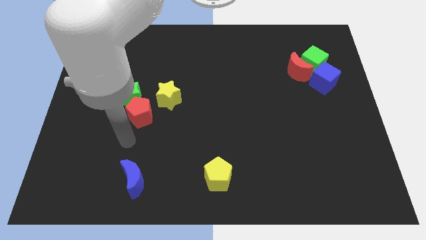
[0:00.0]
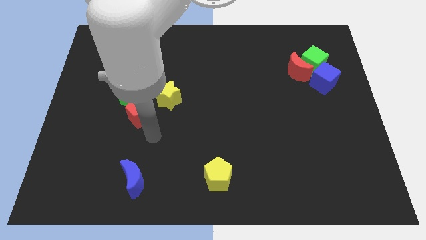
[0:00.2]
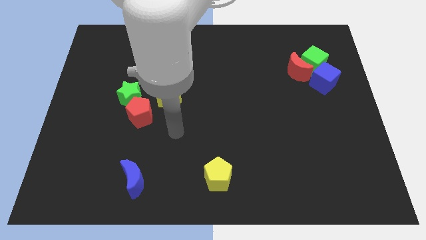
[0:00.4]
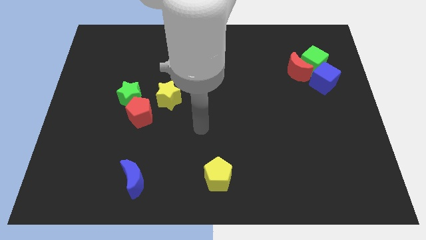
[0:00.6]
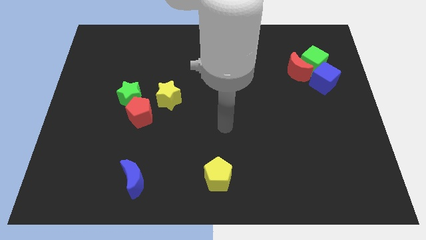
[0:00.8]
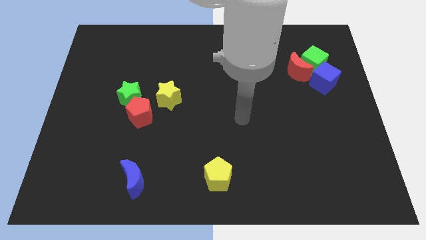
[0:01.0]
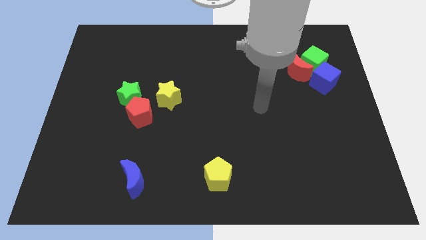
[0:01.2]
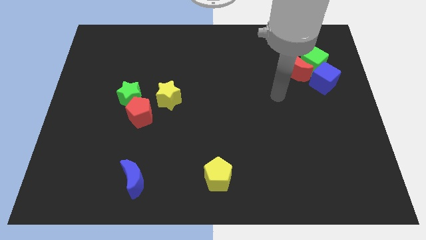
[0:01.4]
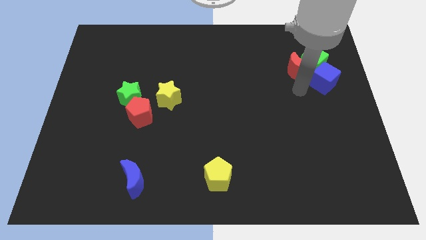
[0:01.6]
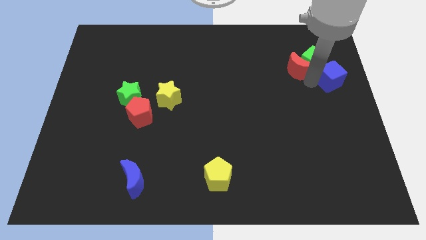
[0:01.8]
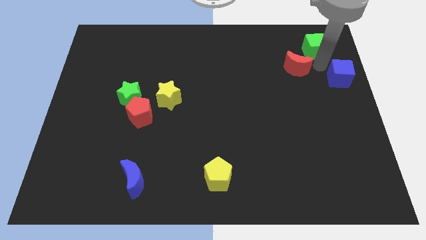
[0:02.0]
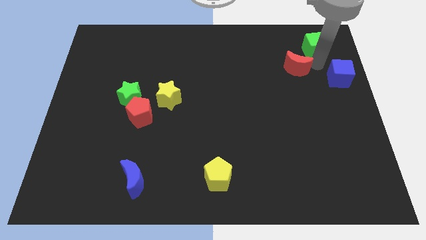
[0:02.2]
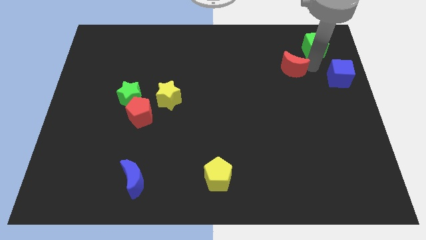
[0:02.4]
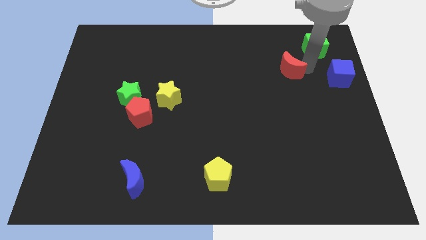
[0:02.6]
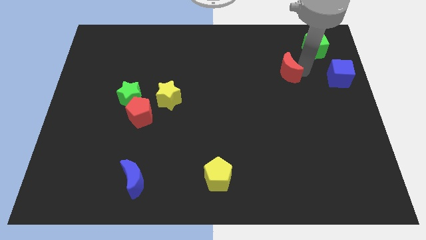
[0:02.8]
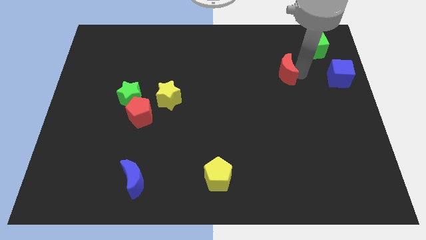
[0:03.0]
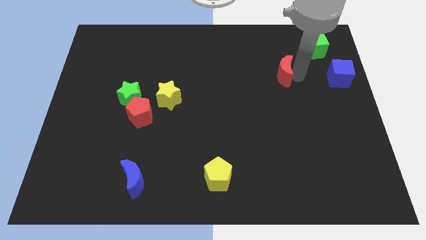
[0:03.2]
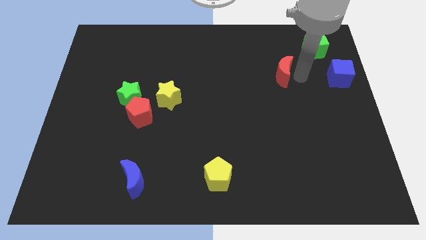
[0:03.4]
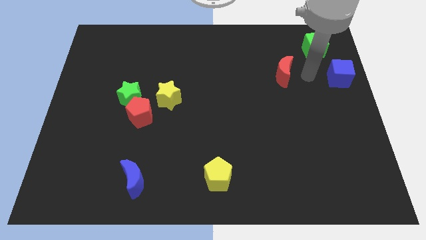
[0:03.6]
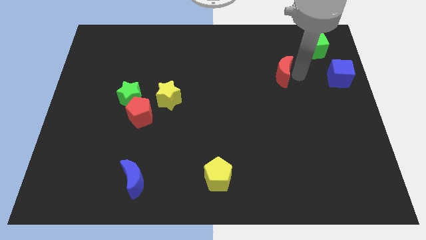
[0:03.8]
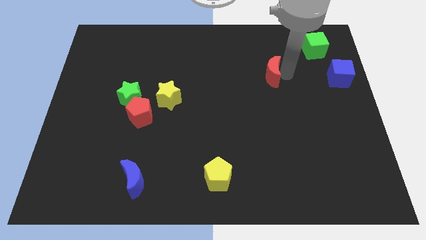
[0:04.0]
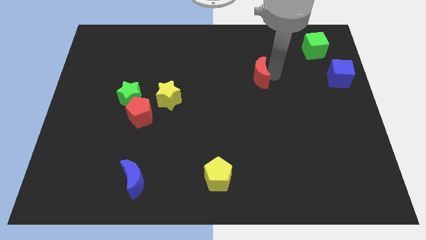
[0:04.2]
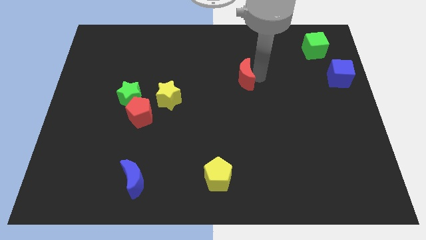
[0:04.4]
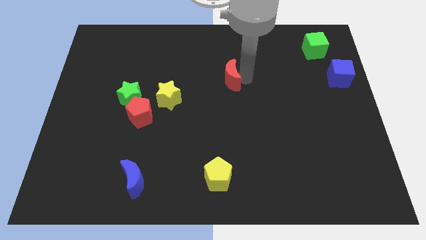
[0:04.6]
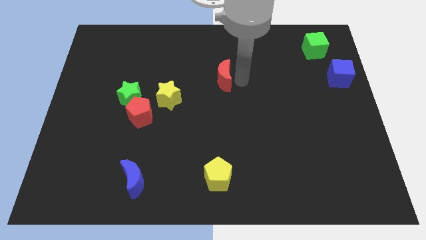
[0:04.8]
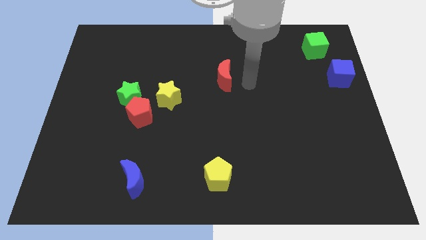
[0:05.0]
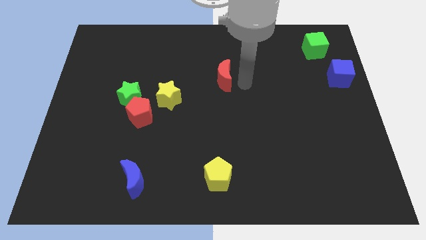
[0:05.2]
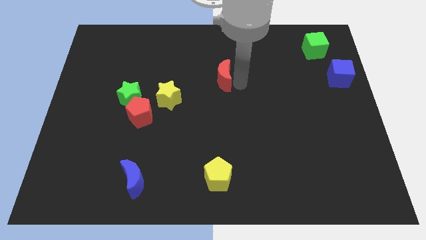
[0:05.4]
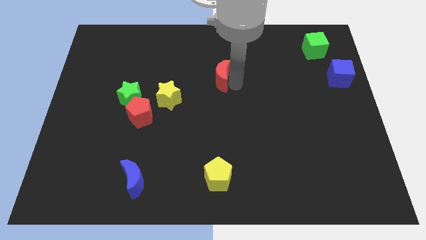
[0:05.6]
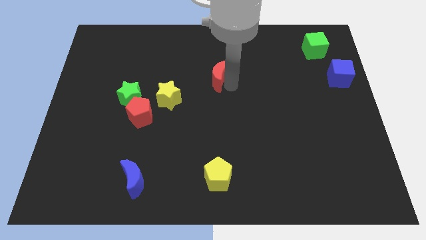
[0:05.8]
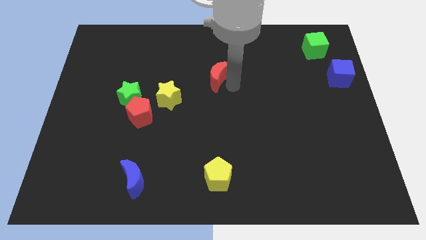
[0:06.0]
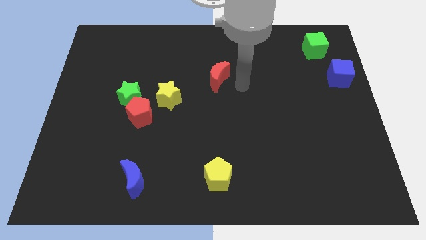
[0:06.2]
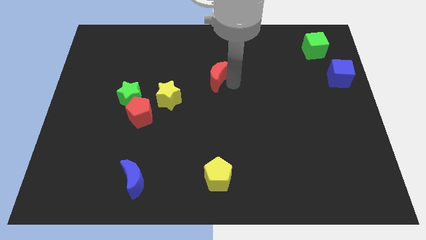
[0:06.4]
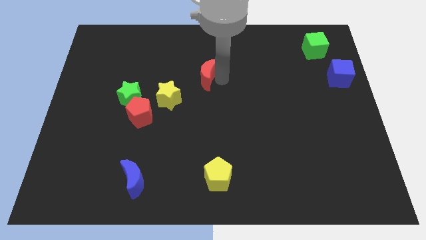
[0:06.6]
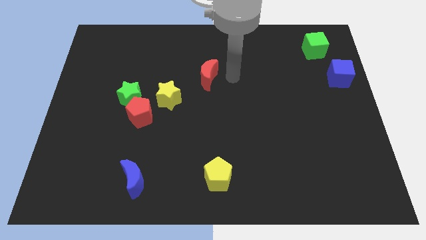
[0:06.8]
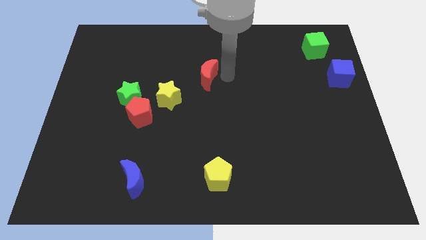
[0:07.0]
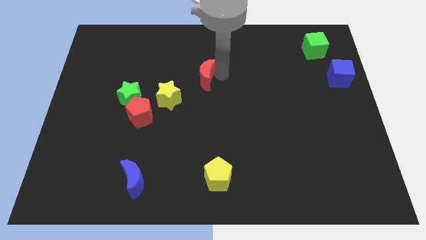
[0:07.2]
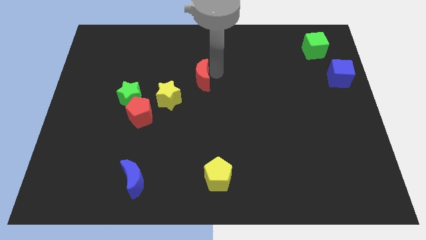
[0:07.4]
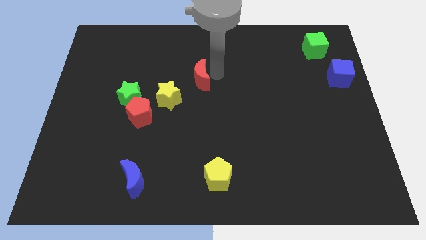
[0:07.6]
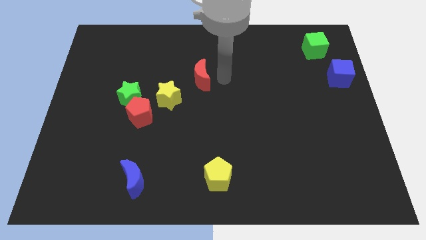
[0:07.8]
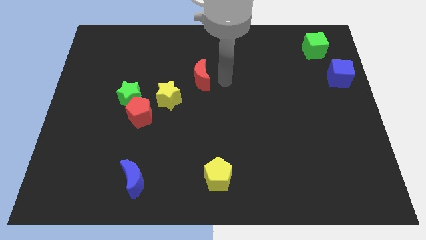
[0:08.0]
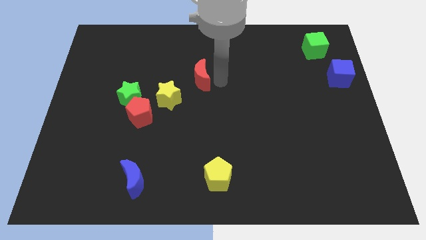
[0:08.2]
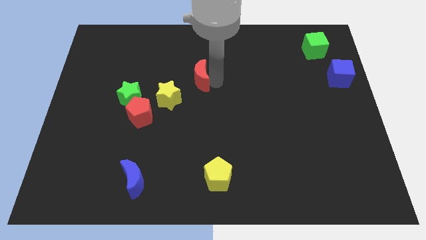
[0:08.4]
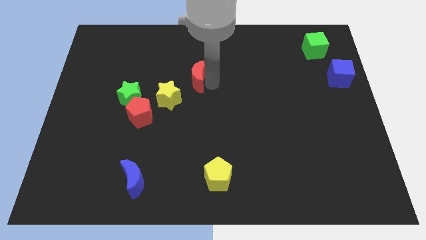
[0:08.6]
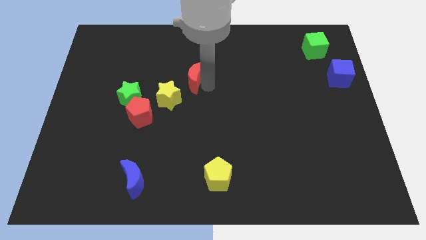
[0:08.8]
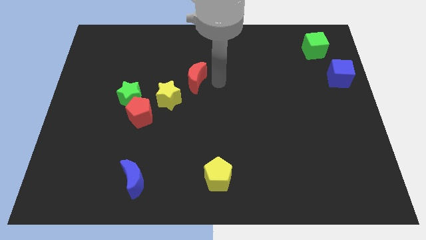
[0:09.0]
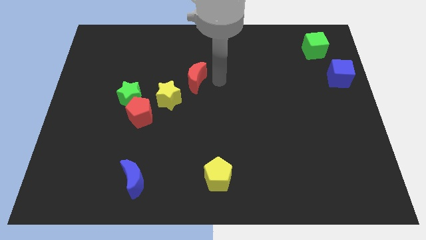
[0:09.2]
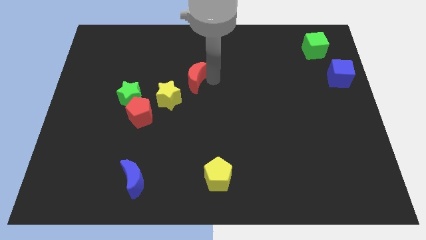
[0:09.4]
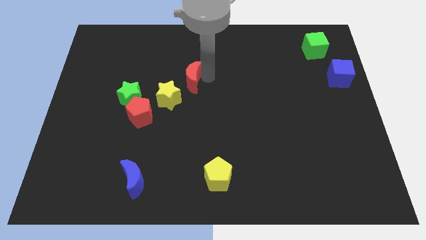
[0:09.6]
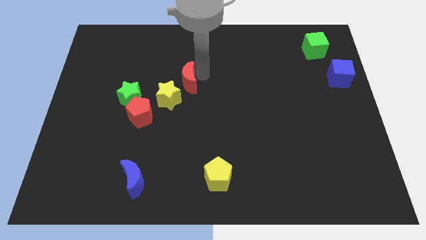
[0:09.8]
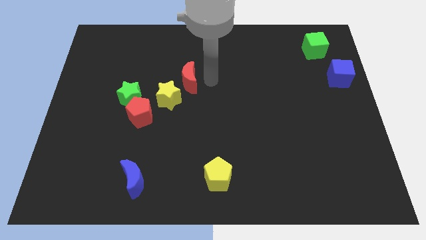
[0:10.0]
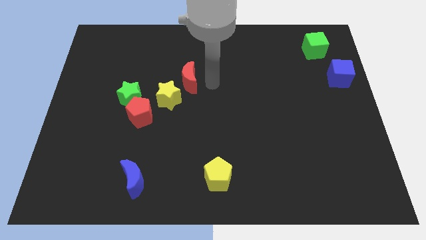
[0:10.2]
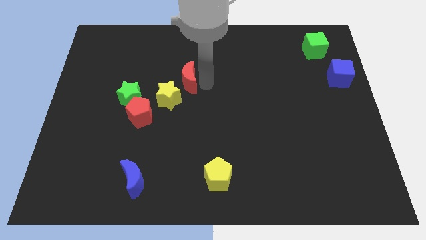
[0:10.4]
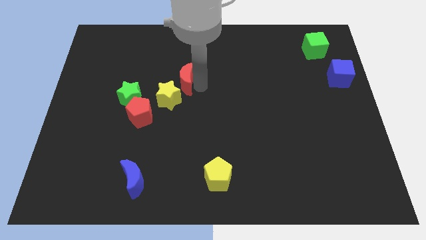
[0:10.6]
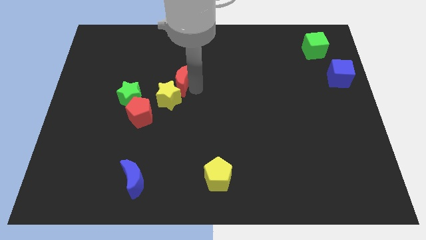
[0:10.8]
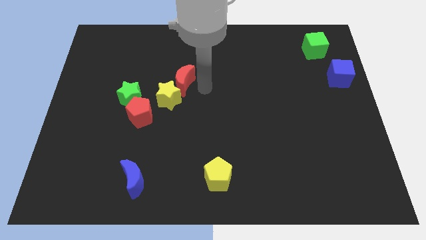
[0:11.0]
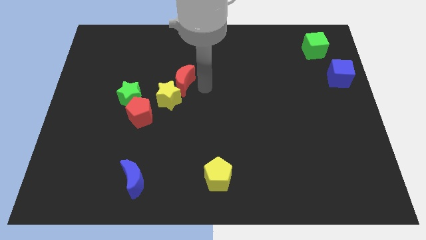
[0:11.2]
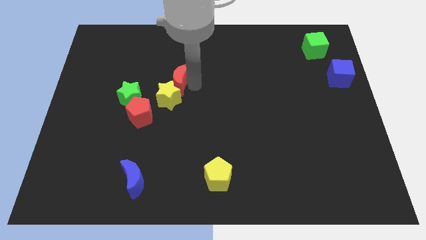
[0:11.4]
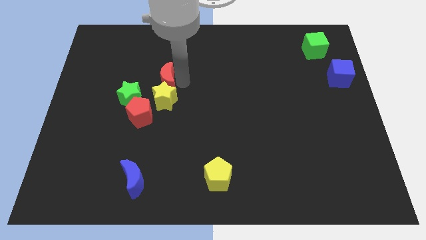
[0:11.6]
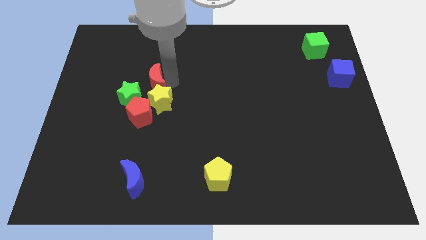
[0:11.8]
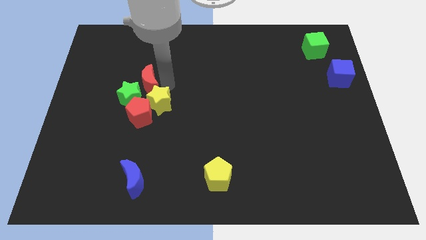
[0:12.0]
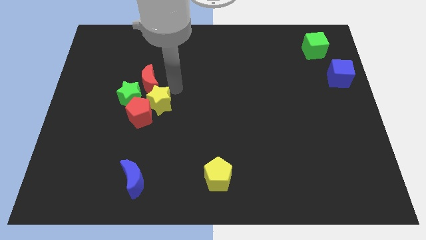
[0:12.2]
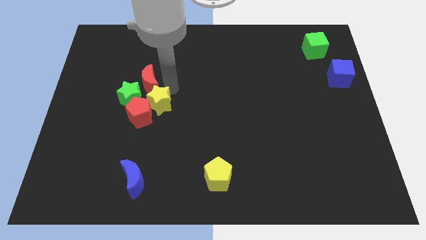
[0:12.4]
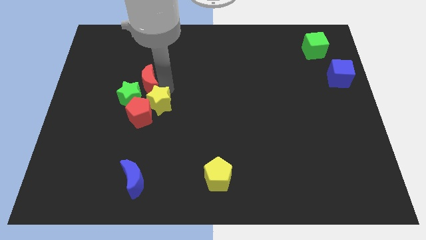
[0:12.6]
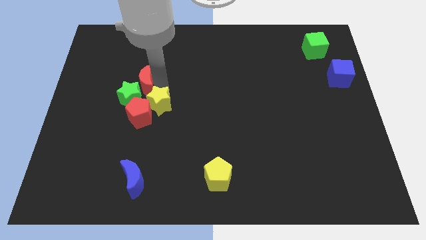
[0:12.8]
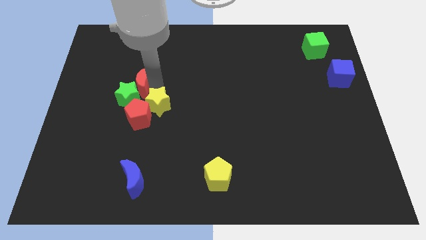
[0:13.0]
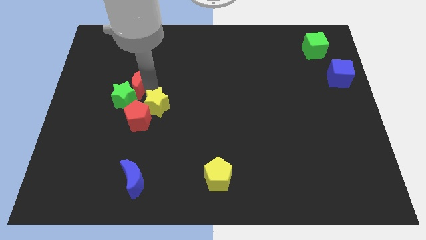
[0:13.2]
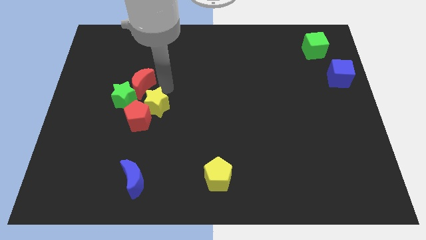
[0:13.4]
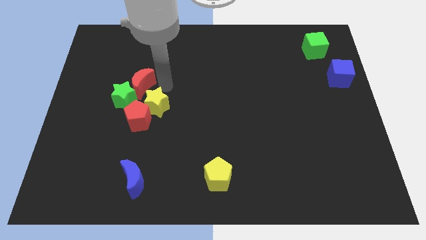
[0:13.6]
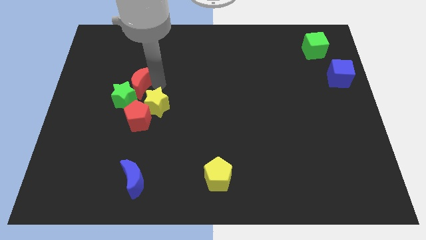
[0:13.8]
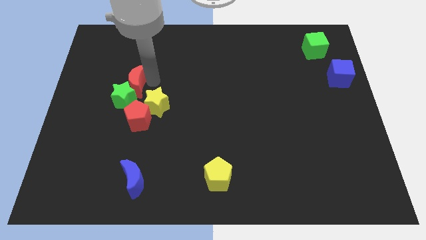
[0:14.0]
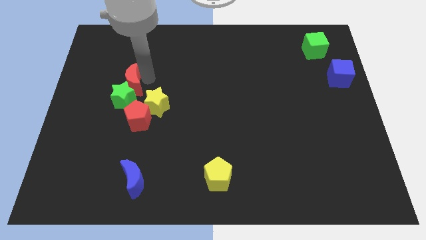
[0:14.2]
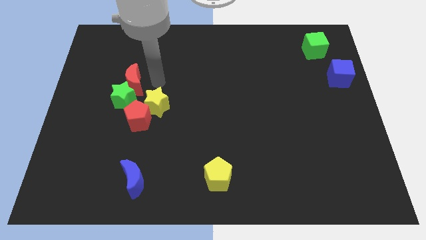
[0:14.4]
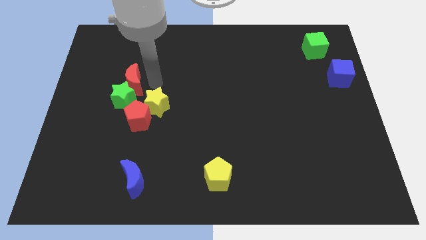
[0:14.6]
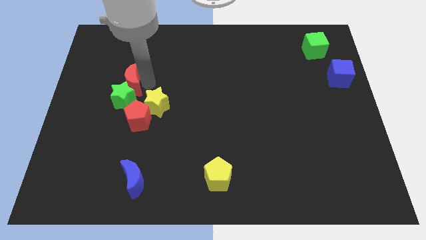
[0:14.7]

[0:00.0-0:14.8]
put the red moon to the top left of the green star
